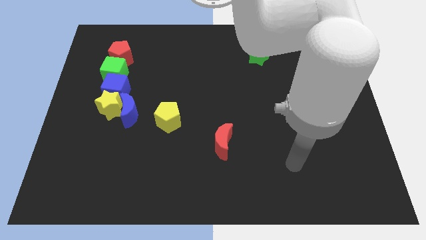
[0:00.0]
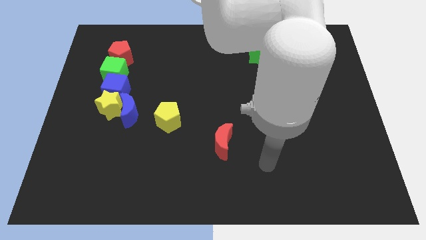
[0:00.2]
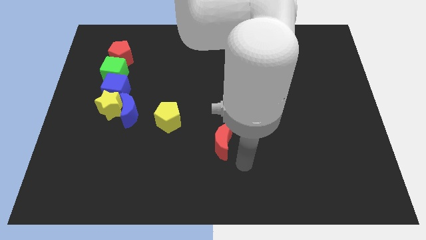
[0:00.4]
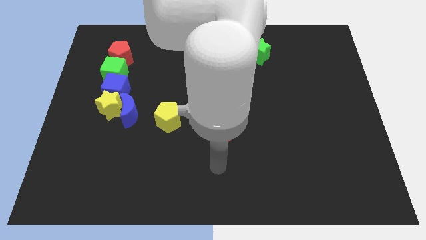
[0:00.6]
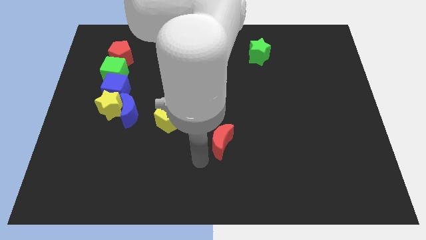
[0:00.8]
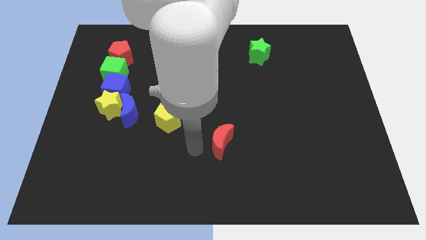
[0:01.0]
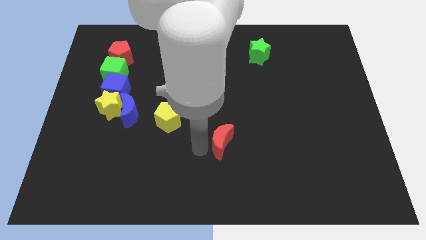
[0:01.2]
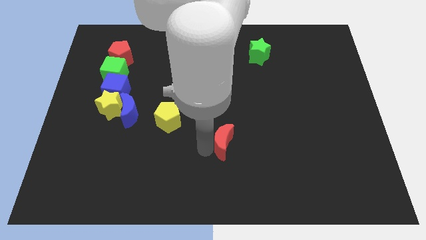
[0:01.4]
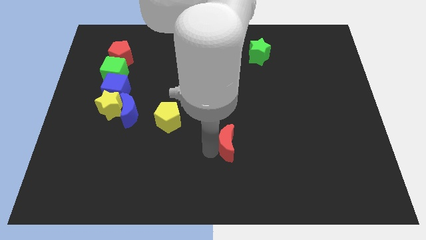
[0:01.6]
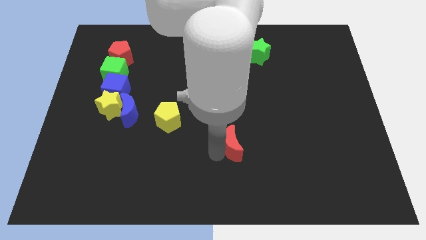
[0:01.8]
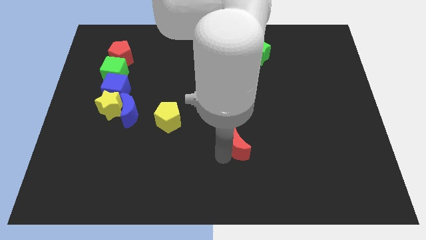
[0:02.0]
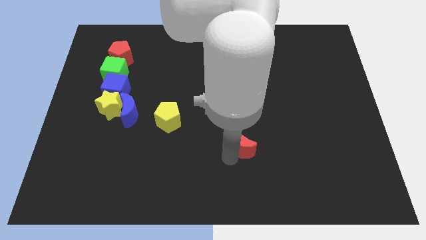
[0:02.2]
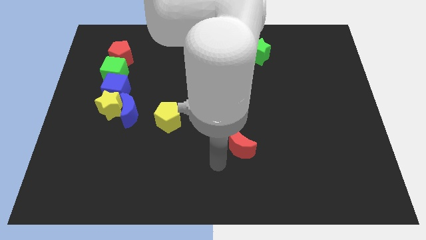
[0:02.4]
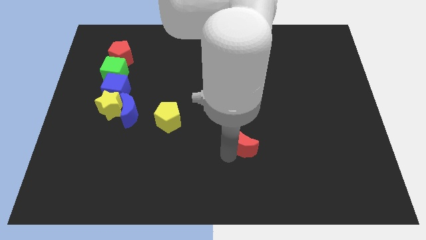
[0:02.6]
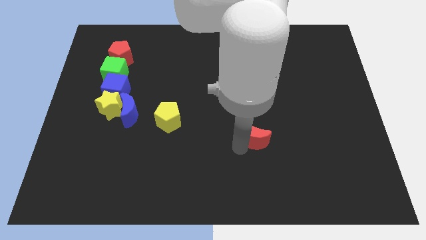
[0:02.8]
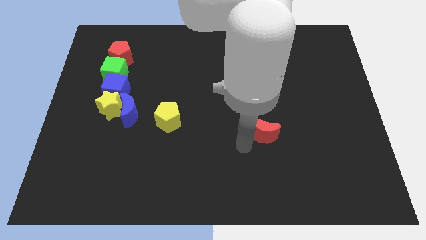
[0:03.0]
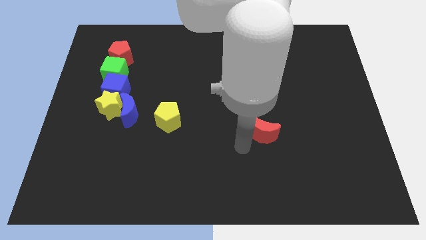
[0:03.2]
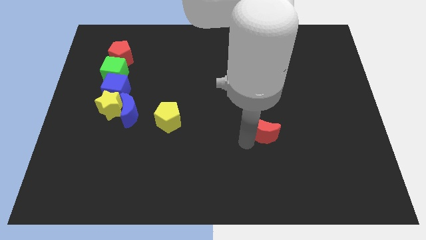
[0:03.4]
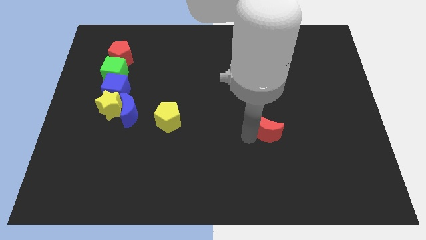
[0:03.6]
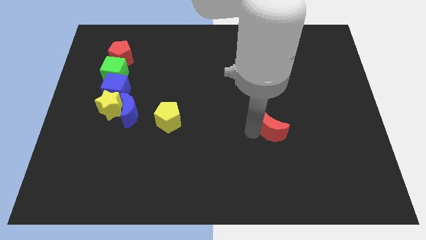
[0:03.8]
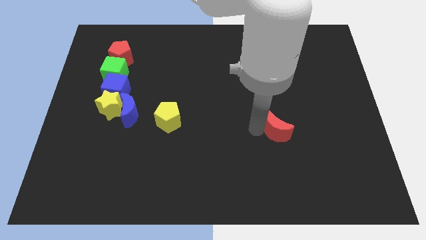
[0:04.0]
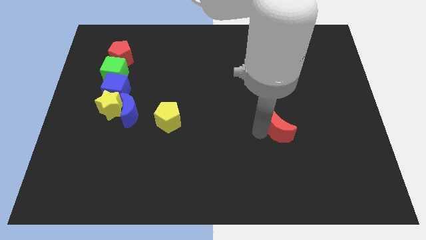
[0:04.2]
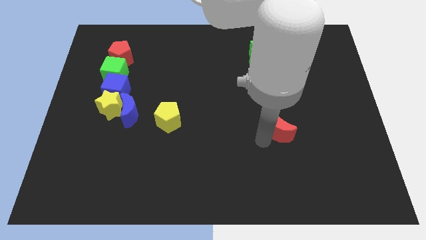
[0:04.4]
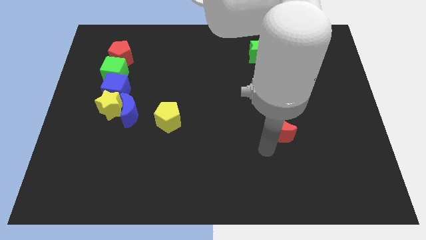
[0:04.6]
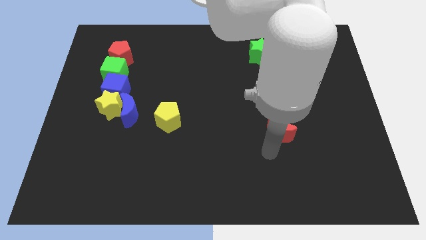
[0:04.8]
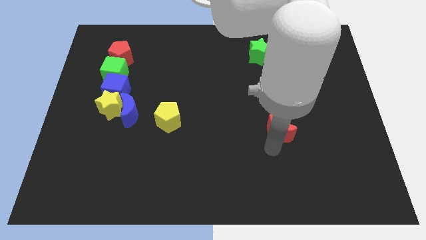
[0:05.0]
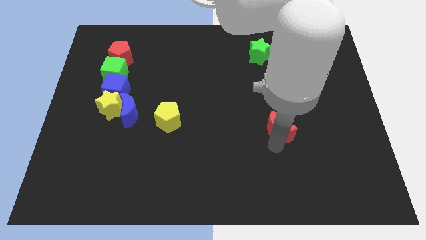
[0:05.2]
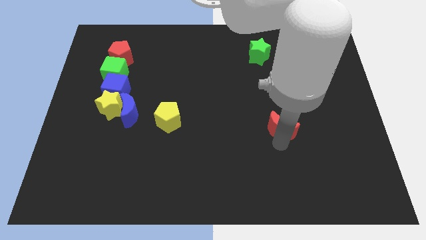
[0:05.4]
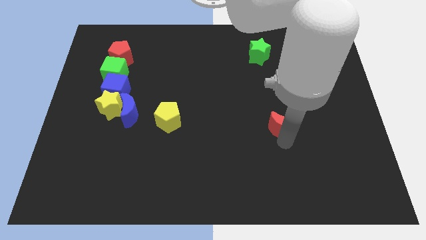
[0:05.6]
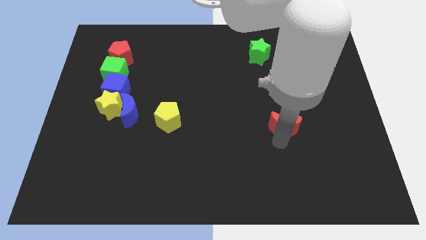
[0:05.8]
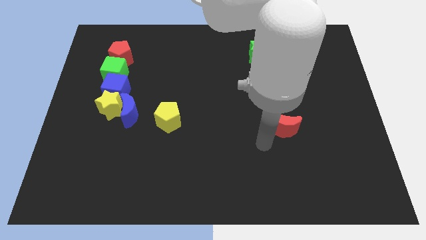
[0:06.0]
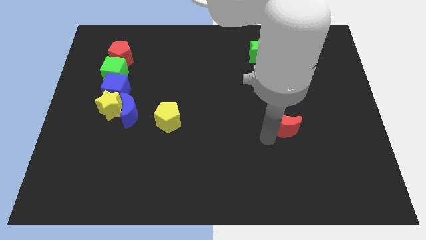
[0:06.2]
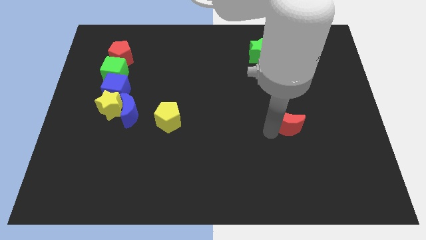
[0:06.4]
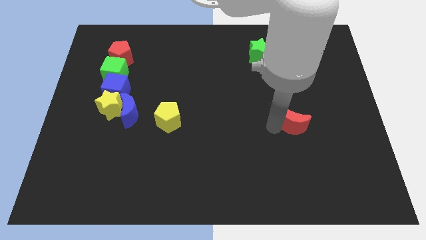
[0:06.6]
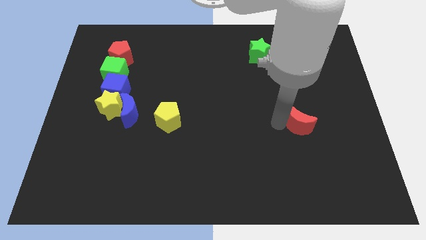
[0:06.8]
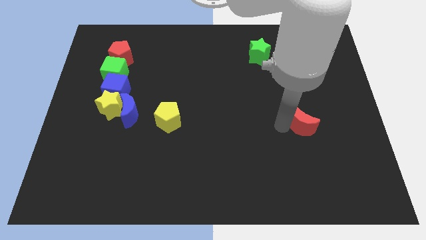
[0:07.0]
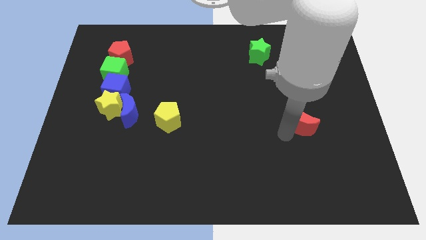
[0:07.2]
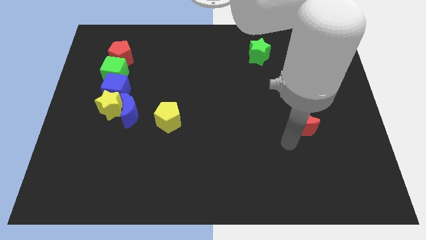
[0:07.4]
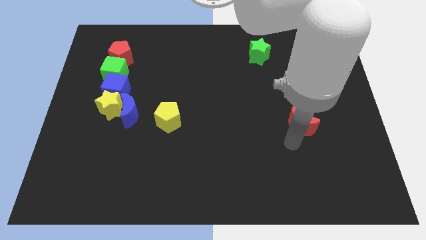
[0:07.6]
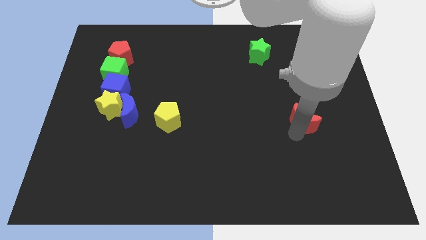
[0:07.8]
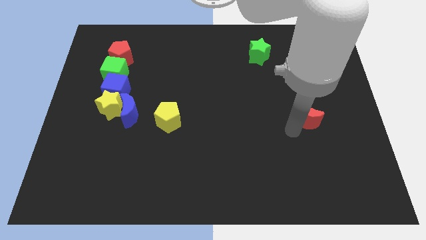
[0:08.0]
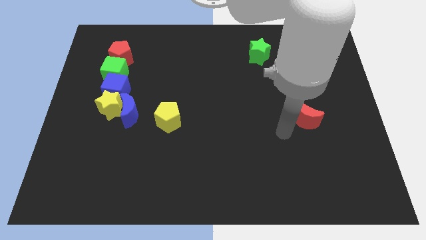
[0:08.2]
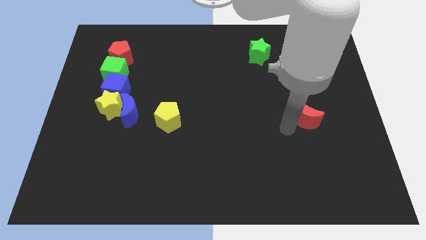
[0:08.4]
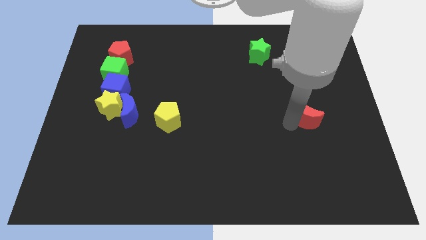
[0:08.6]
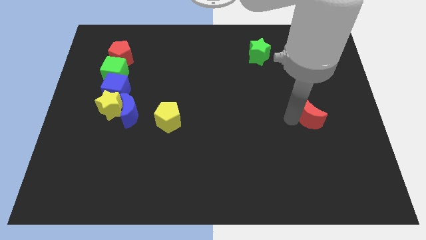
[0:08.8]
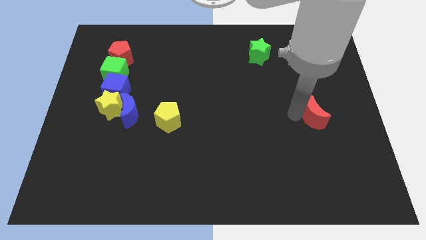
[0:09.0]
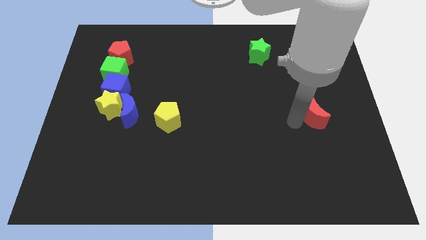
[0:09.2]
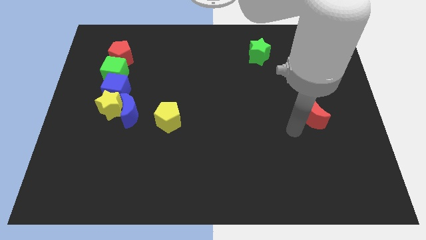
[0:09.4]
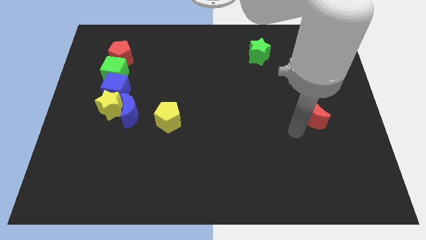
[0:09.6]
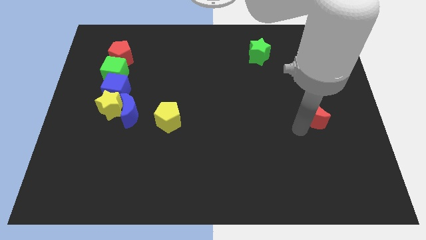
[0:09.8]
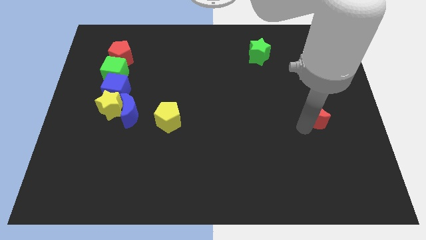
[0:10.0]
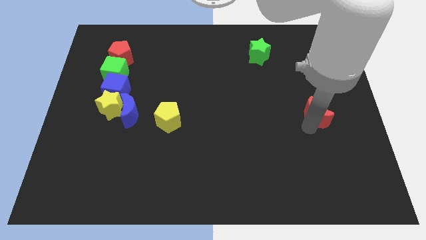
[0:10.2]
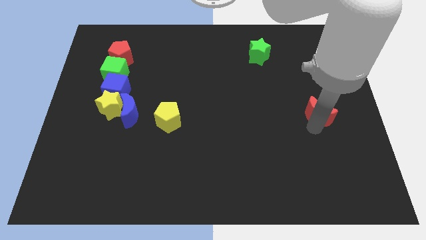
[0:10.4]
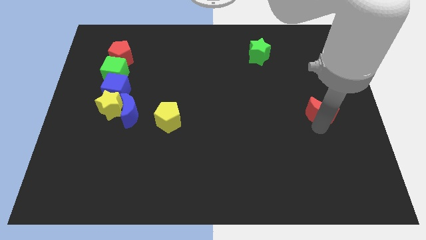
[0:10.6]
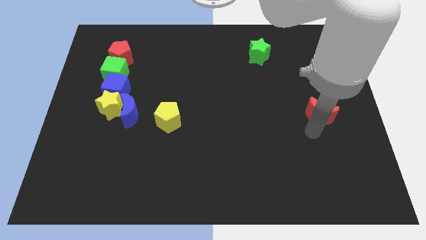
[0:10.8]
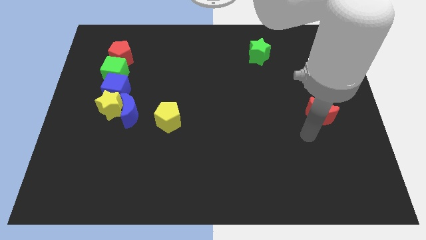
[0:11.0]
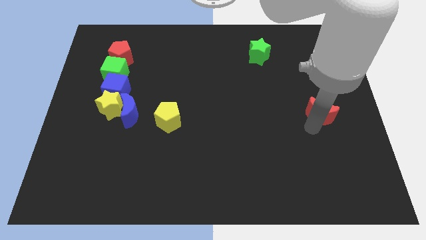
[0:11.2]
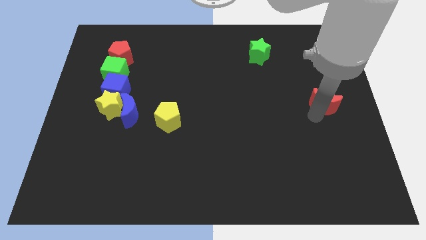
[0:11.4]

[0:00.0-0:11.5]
slide the red moon to the right side
